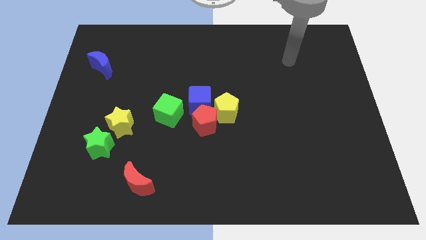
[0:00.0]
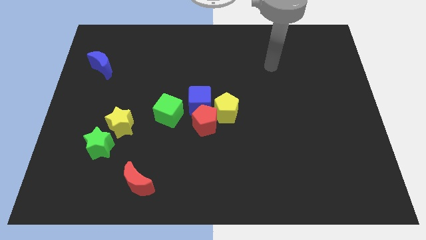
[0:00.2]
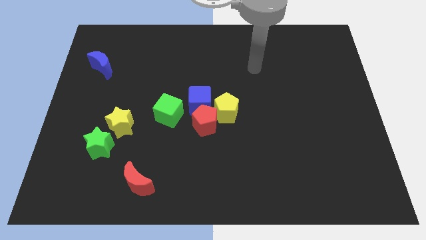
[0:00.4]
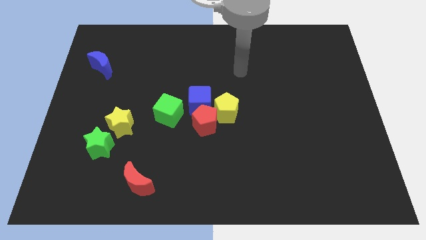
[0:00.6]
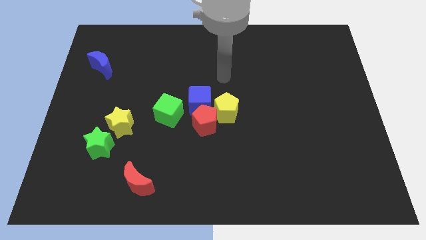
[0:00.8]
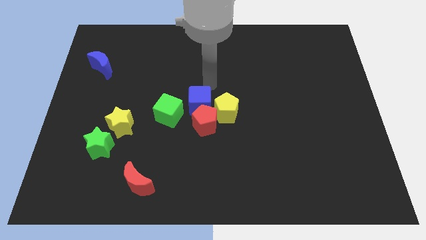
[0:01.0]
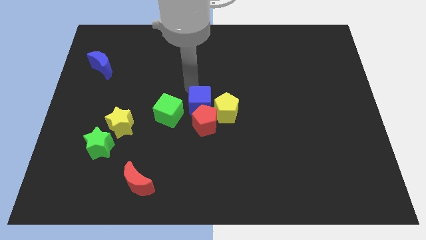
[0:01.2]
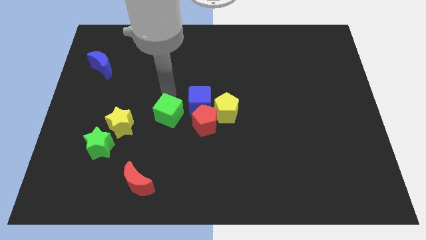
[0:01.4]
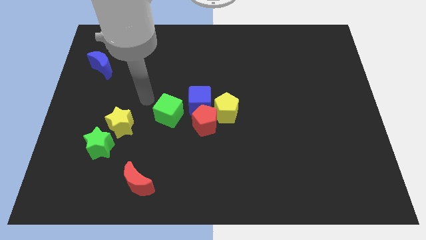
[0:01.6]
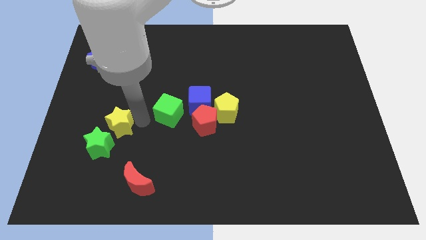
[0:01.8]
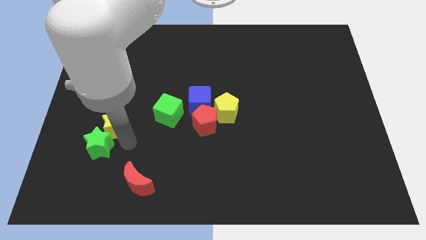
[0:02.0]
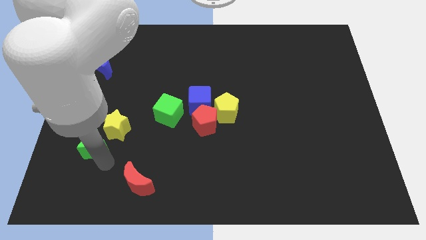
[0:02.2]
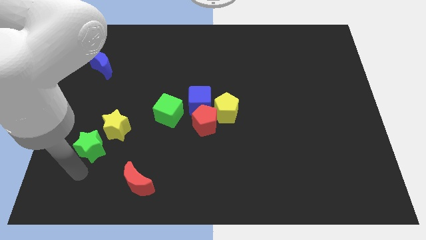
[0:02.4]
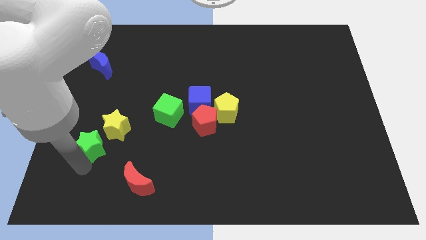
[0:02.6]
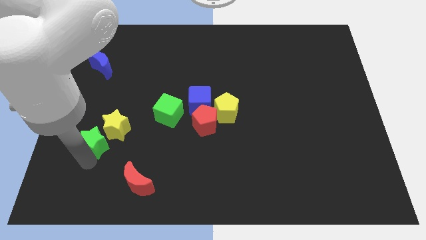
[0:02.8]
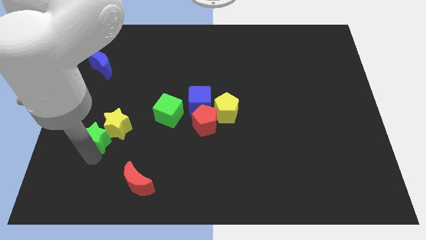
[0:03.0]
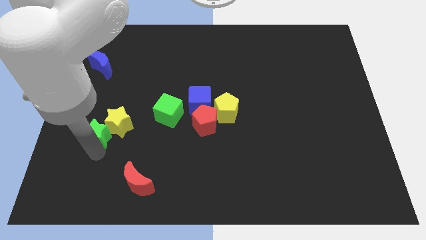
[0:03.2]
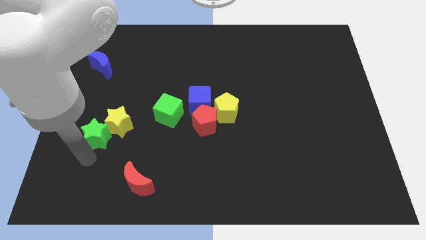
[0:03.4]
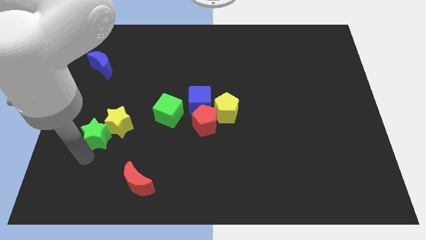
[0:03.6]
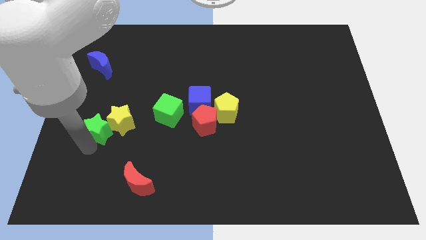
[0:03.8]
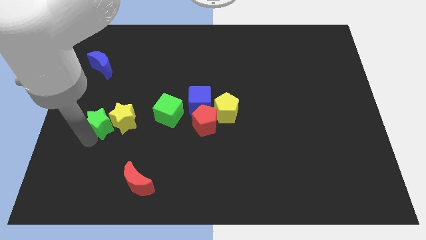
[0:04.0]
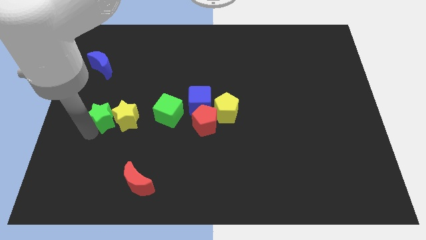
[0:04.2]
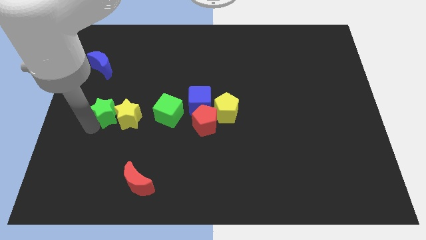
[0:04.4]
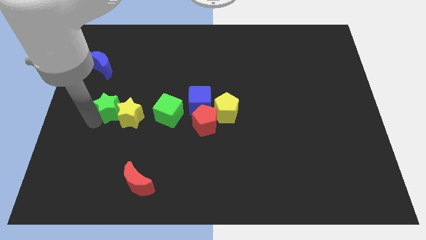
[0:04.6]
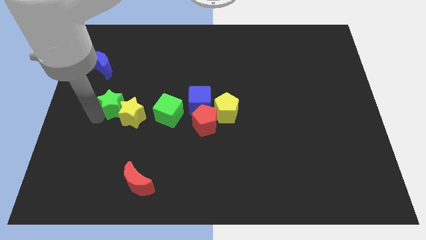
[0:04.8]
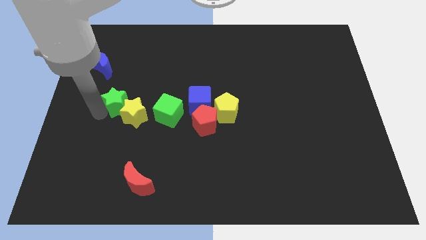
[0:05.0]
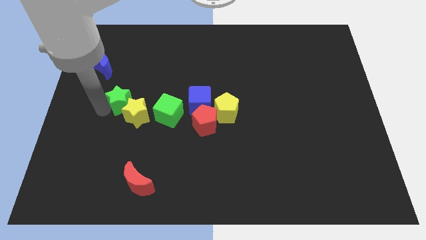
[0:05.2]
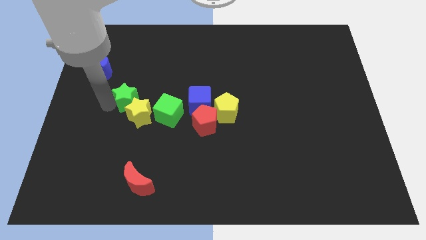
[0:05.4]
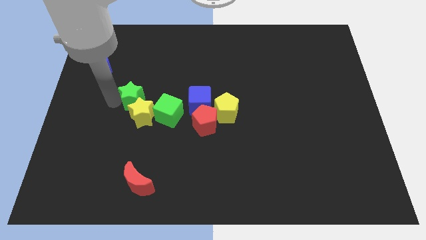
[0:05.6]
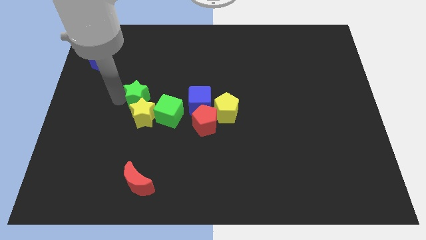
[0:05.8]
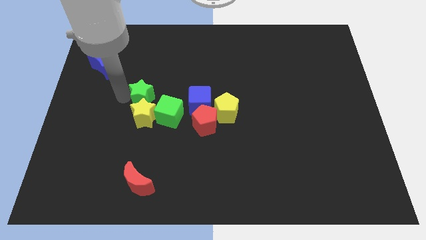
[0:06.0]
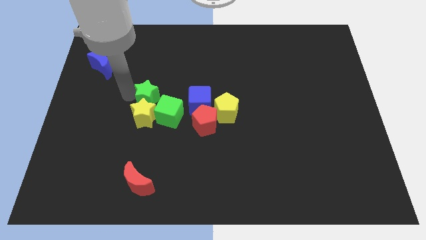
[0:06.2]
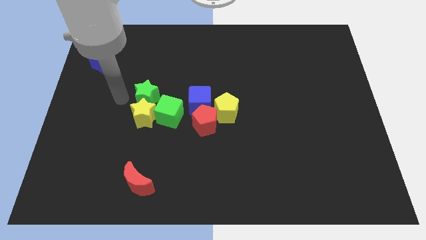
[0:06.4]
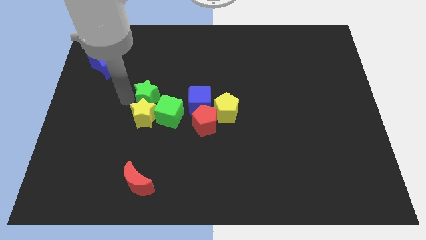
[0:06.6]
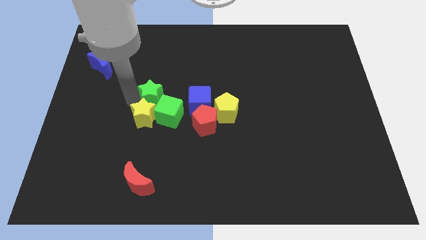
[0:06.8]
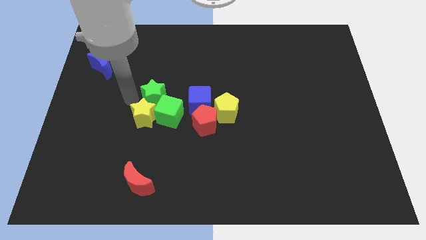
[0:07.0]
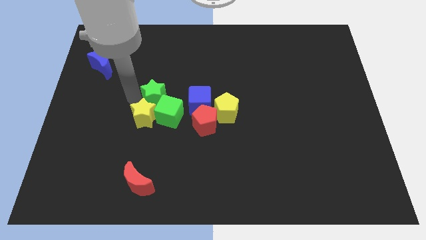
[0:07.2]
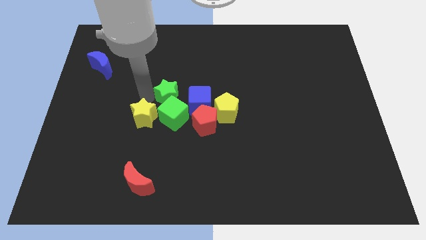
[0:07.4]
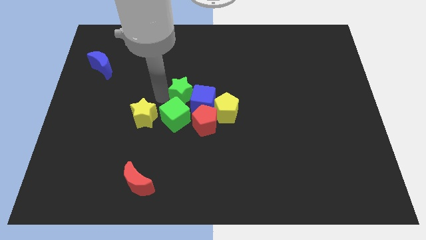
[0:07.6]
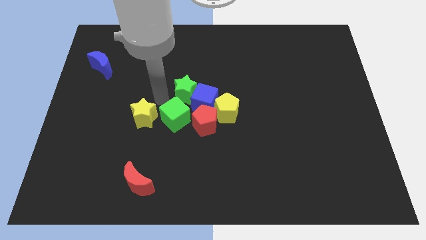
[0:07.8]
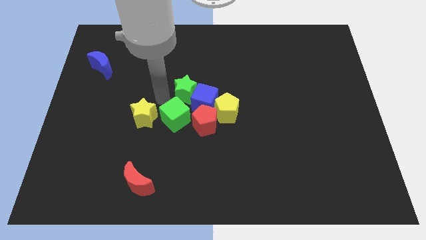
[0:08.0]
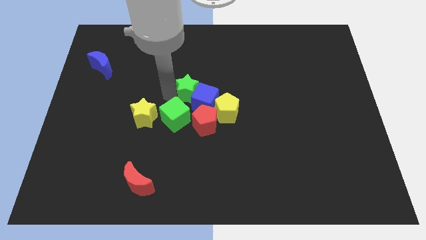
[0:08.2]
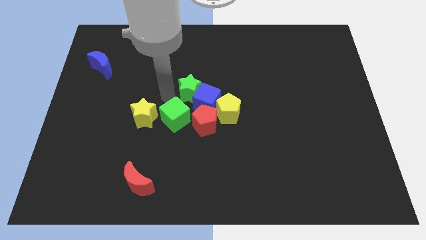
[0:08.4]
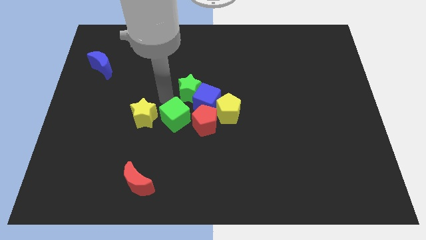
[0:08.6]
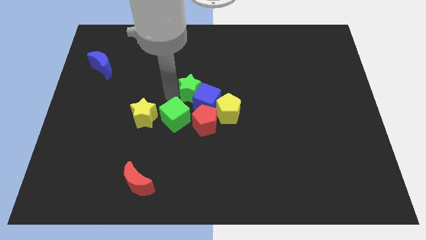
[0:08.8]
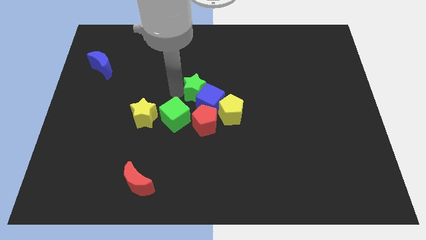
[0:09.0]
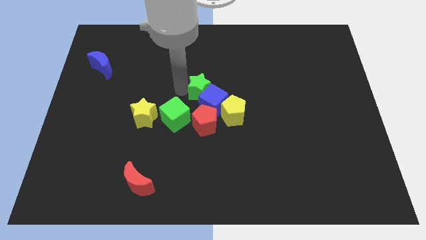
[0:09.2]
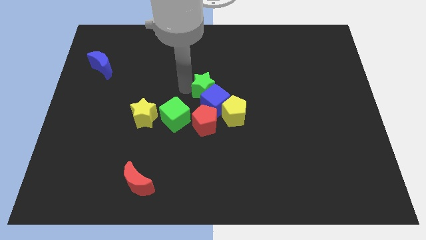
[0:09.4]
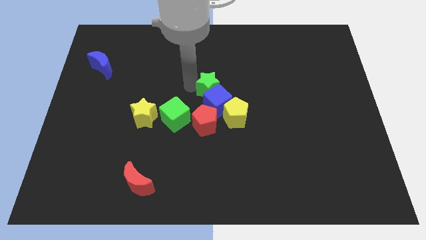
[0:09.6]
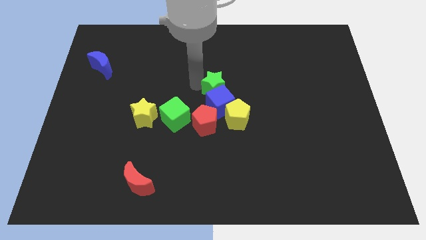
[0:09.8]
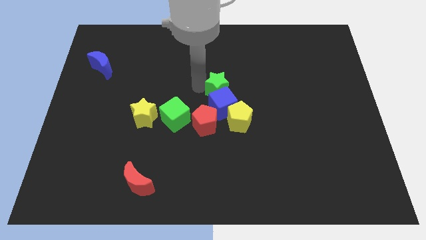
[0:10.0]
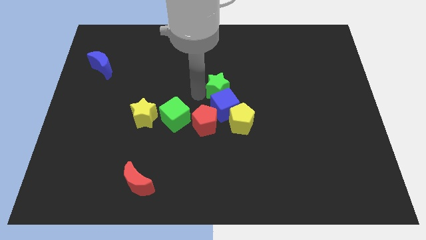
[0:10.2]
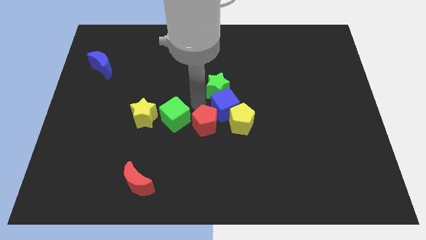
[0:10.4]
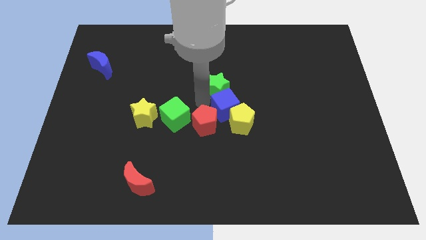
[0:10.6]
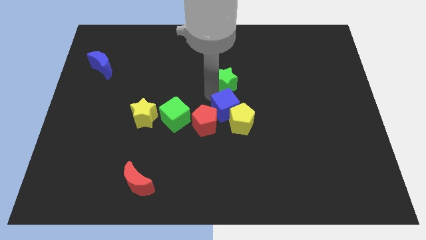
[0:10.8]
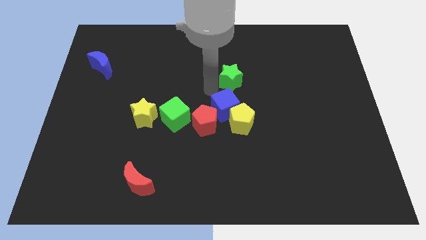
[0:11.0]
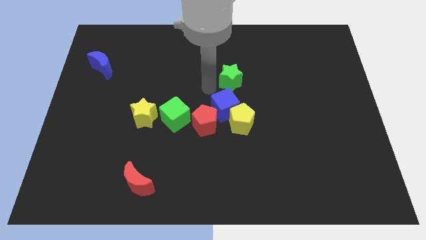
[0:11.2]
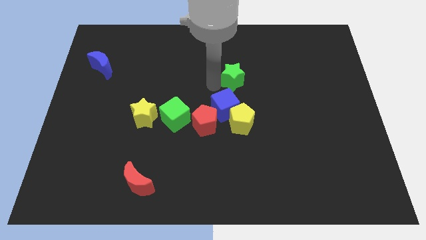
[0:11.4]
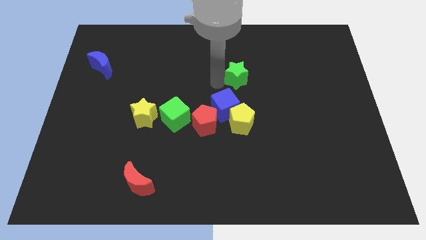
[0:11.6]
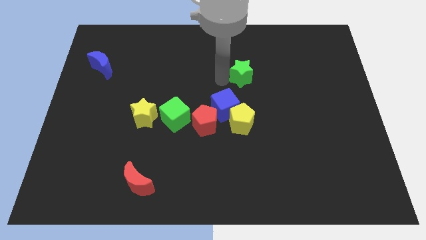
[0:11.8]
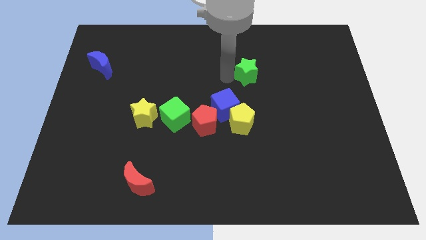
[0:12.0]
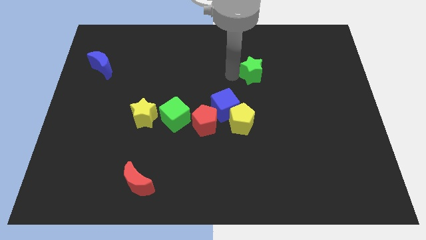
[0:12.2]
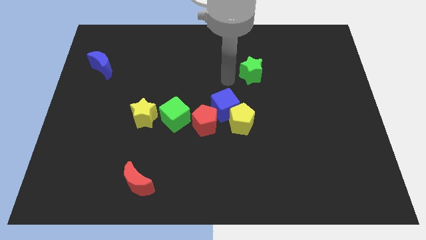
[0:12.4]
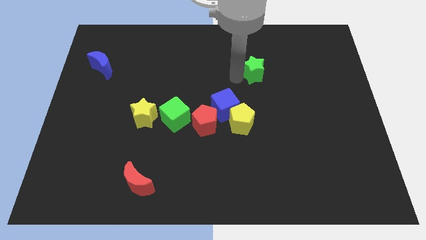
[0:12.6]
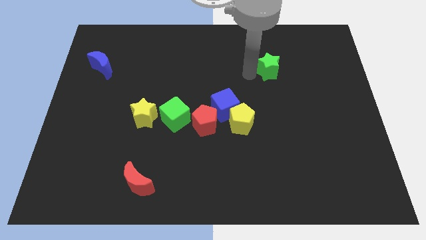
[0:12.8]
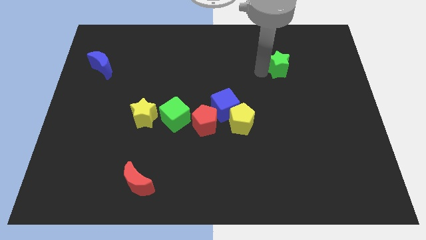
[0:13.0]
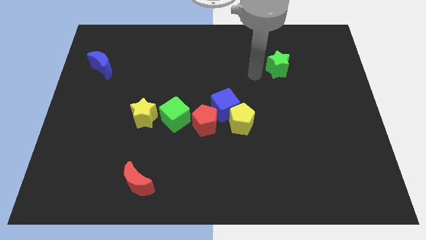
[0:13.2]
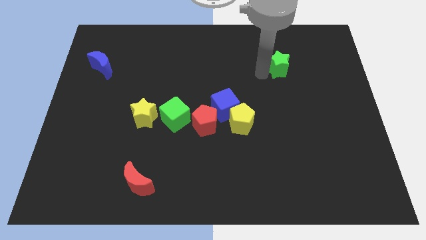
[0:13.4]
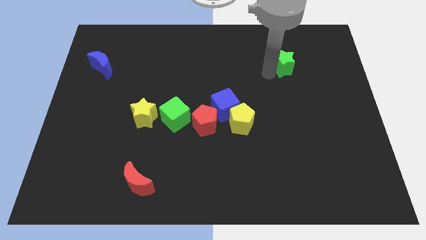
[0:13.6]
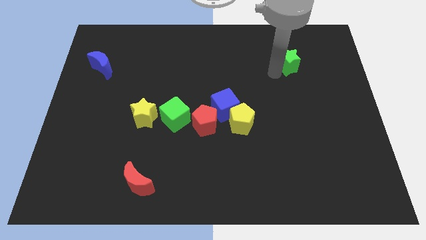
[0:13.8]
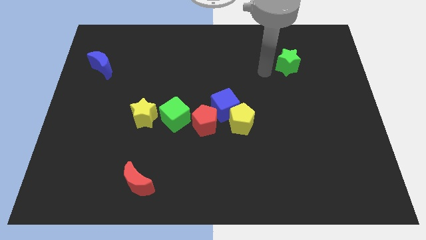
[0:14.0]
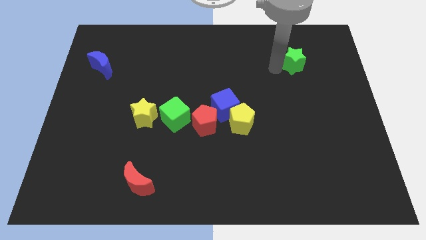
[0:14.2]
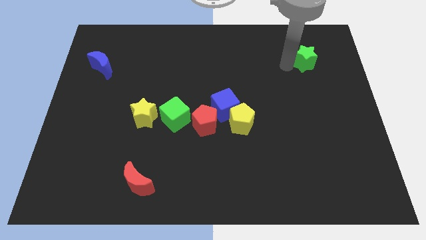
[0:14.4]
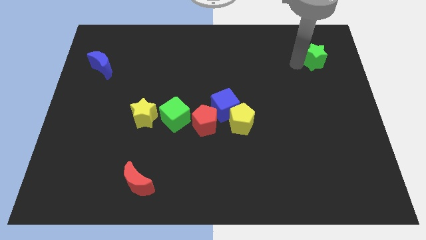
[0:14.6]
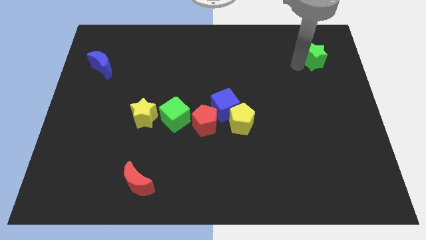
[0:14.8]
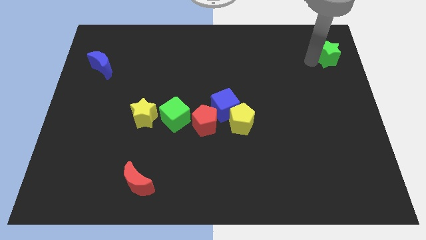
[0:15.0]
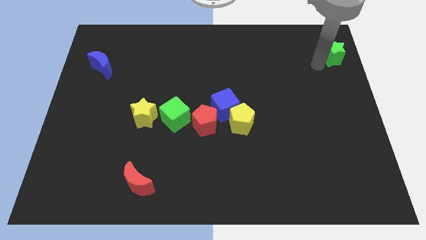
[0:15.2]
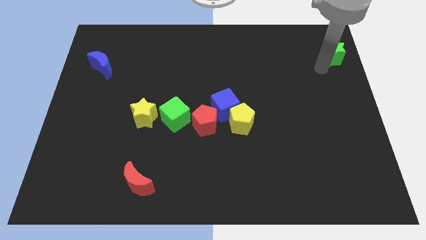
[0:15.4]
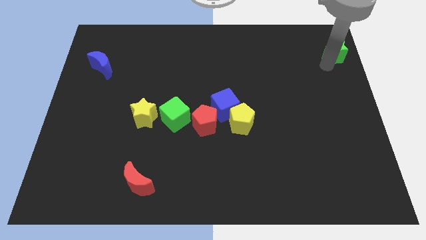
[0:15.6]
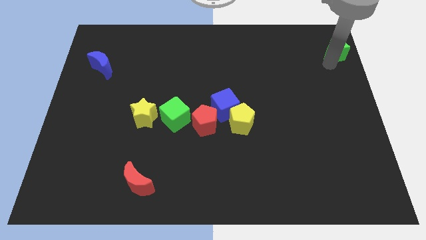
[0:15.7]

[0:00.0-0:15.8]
put the green star to the top right
